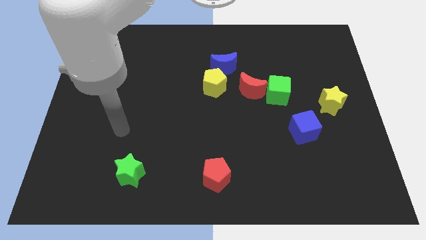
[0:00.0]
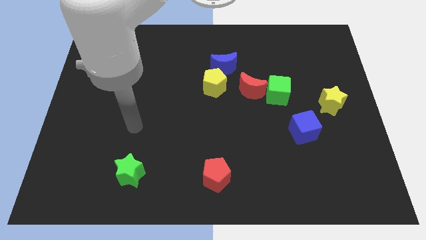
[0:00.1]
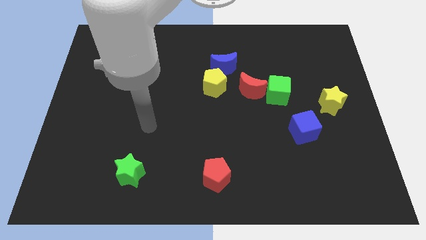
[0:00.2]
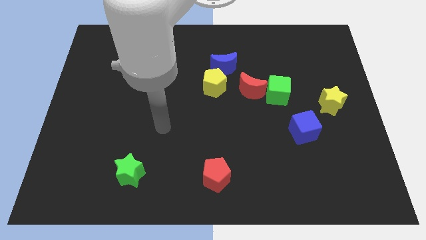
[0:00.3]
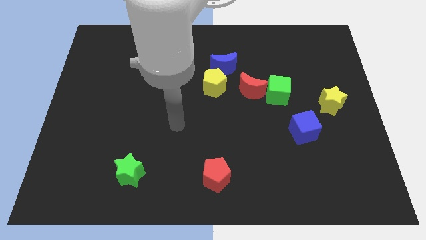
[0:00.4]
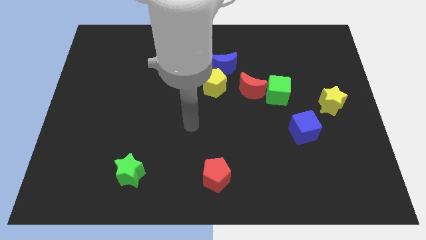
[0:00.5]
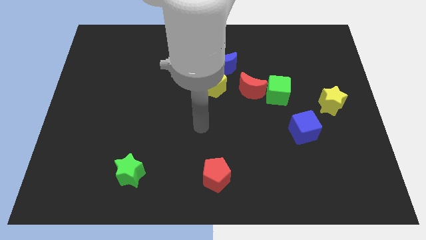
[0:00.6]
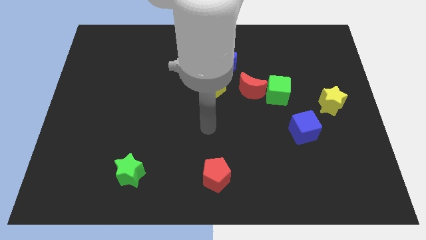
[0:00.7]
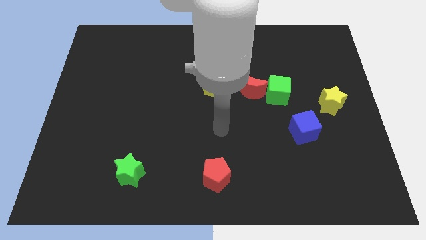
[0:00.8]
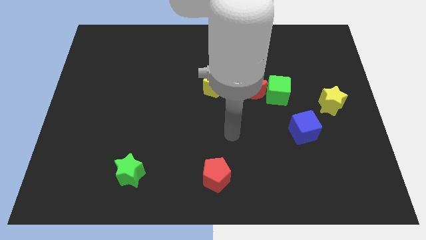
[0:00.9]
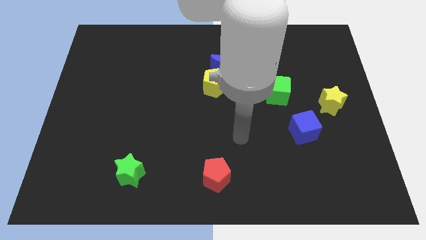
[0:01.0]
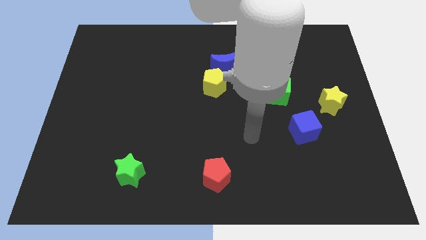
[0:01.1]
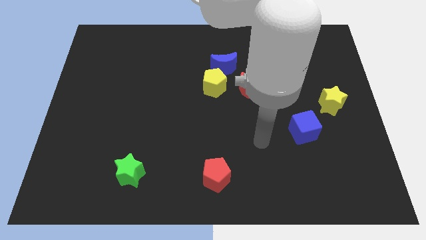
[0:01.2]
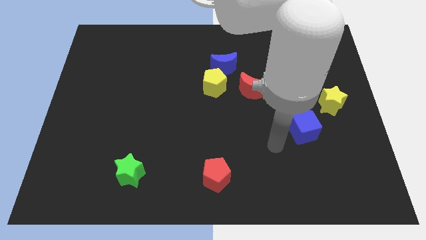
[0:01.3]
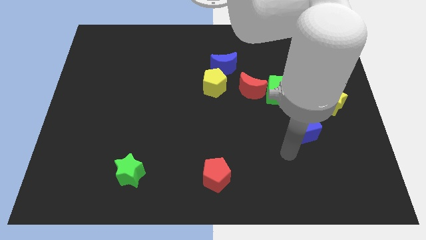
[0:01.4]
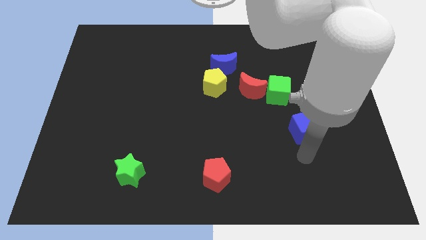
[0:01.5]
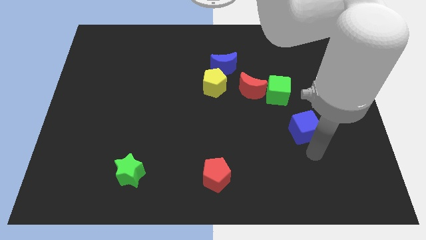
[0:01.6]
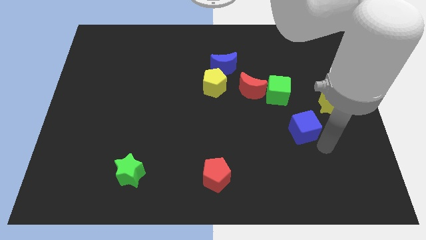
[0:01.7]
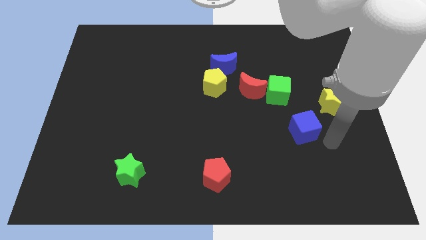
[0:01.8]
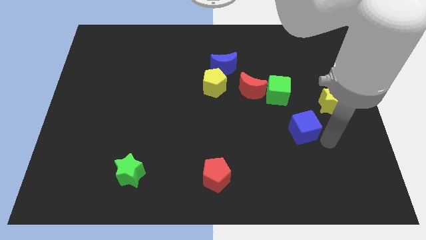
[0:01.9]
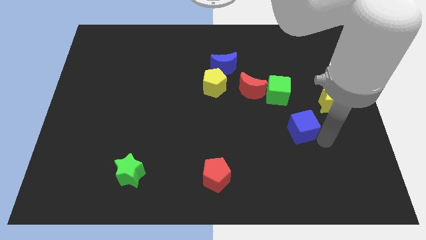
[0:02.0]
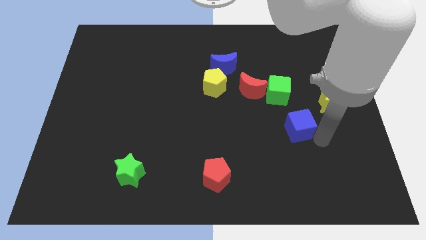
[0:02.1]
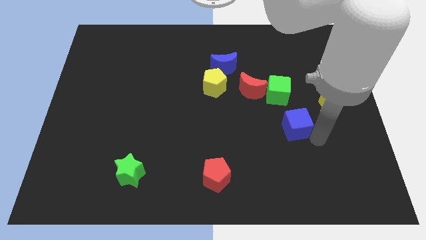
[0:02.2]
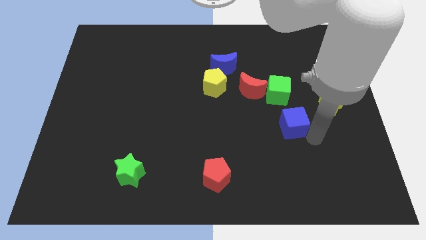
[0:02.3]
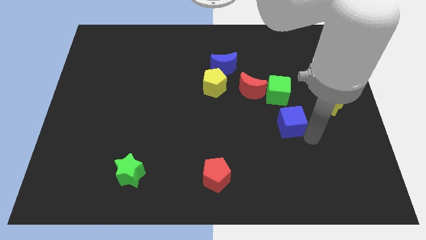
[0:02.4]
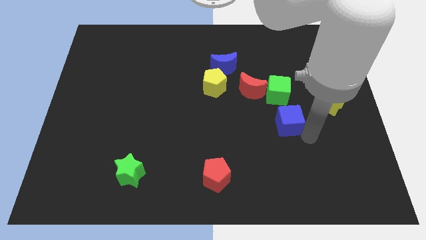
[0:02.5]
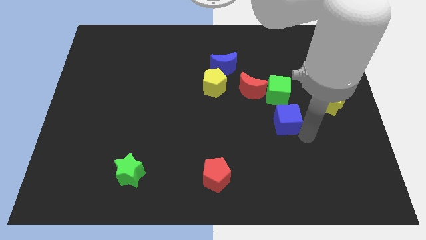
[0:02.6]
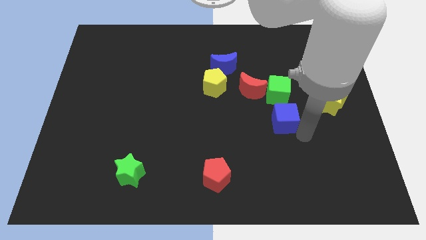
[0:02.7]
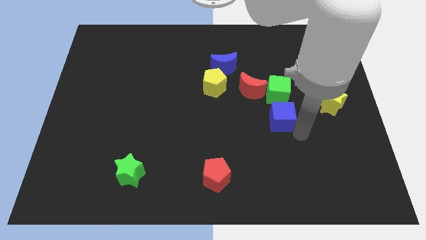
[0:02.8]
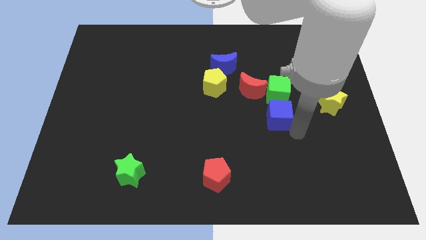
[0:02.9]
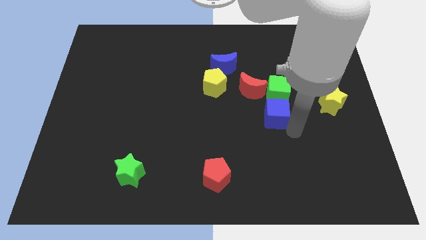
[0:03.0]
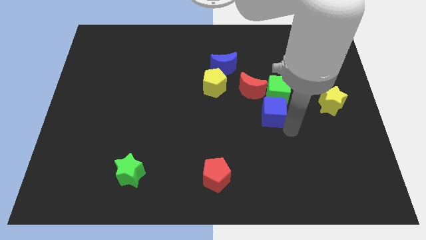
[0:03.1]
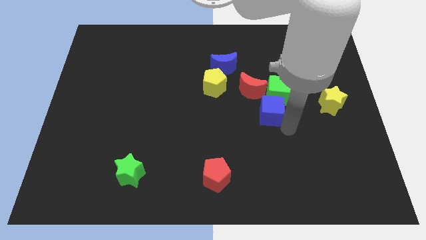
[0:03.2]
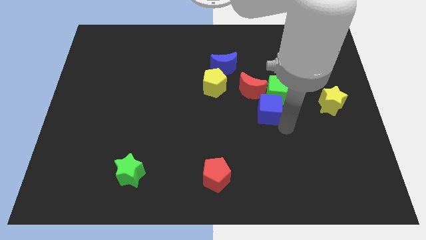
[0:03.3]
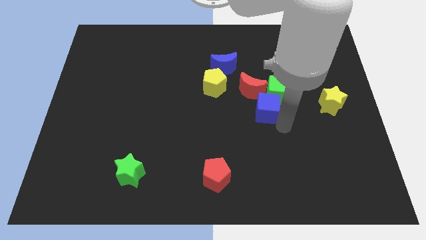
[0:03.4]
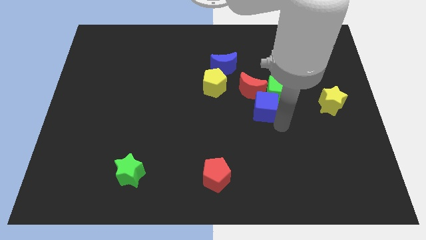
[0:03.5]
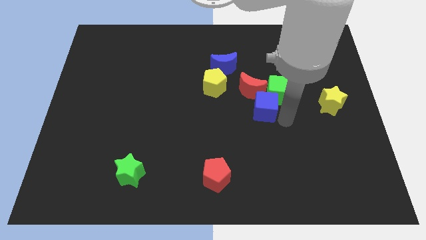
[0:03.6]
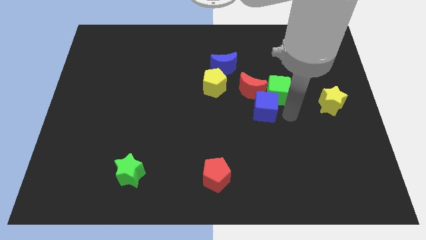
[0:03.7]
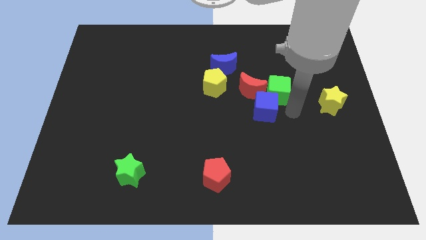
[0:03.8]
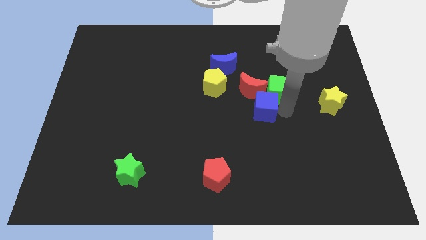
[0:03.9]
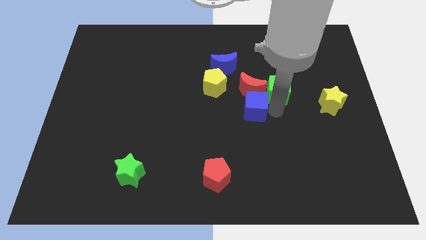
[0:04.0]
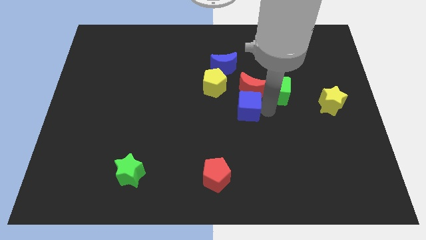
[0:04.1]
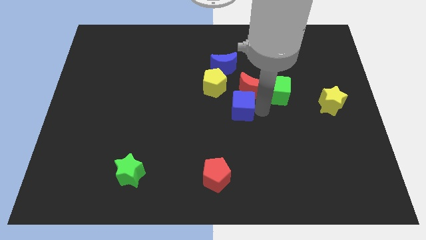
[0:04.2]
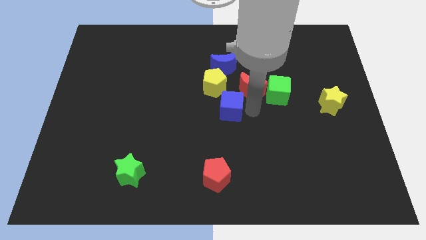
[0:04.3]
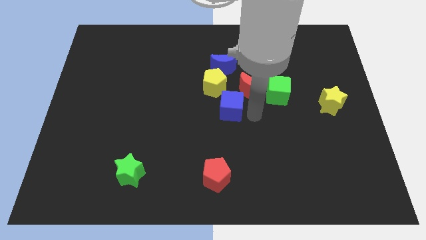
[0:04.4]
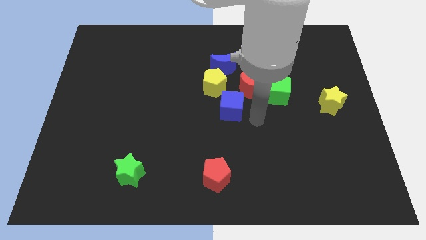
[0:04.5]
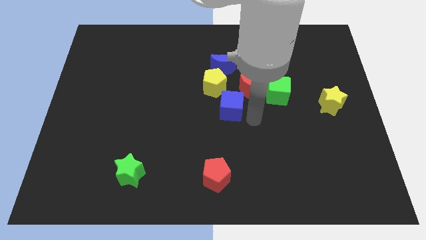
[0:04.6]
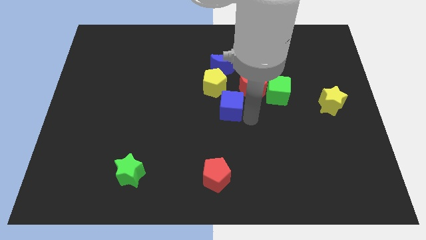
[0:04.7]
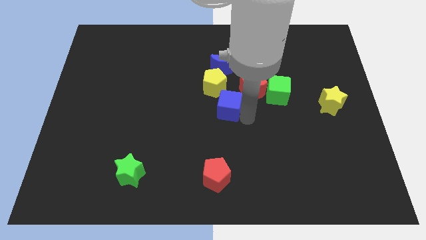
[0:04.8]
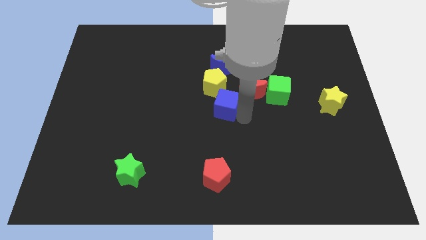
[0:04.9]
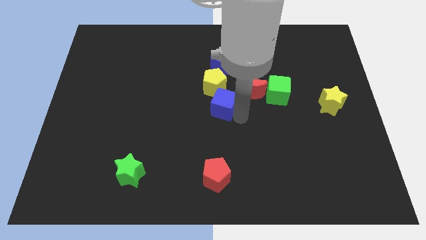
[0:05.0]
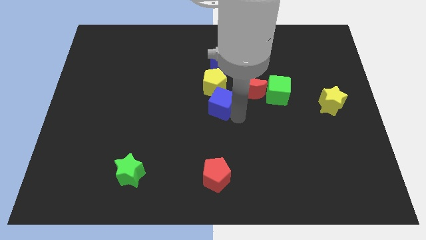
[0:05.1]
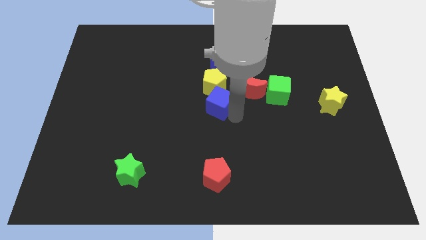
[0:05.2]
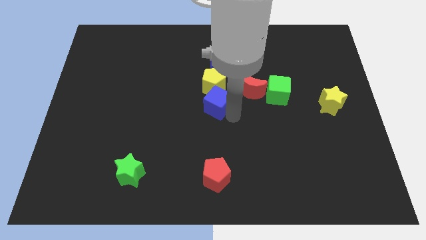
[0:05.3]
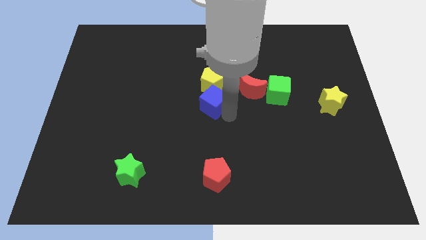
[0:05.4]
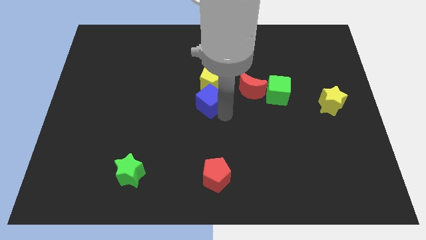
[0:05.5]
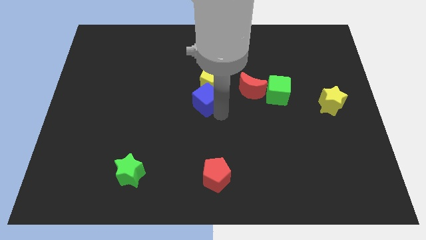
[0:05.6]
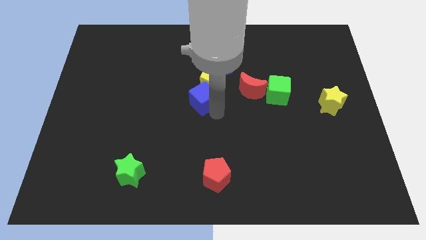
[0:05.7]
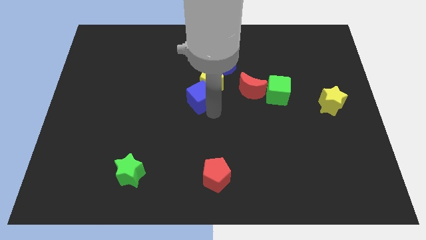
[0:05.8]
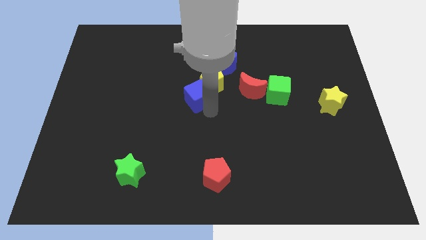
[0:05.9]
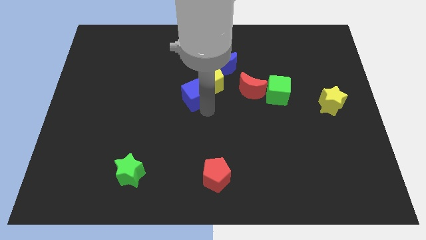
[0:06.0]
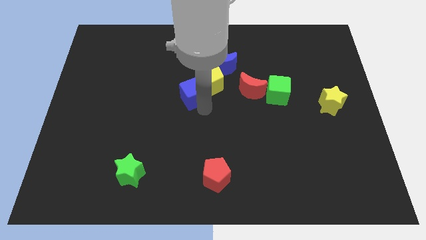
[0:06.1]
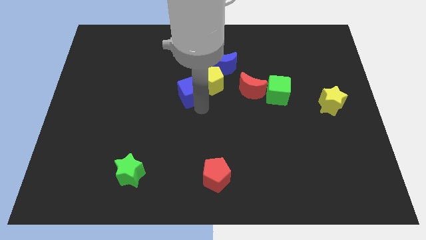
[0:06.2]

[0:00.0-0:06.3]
slide the blue cube up and left

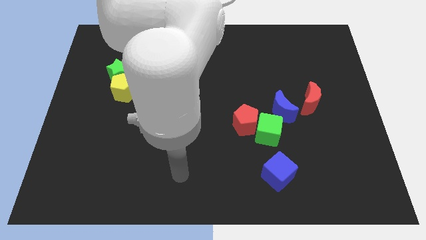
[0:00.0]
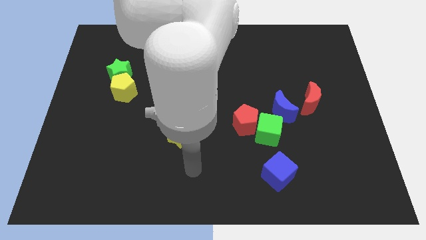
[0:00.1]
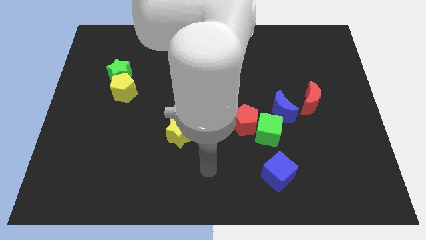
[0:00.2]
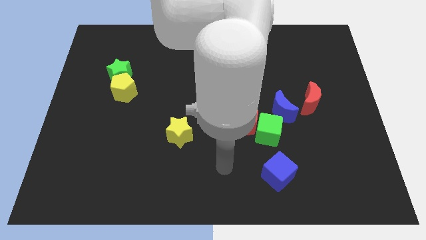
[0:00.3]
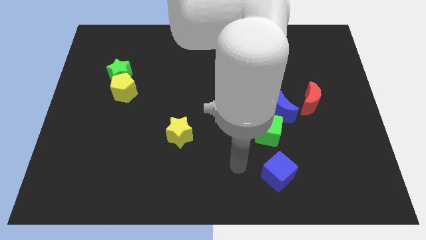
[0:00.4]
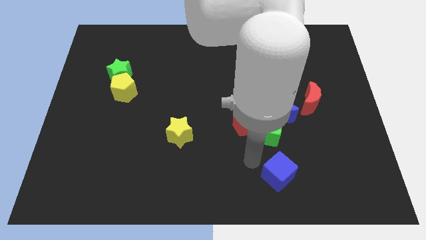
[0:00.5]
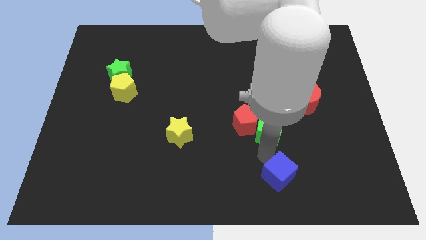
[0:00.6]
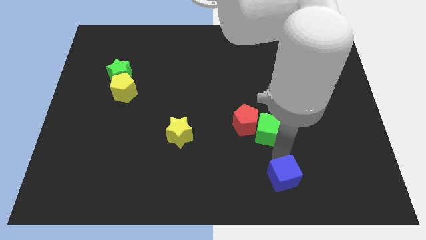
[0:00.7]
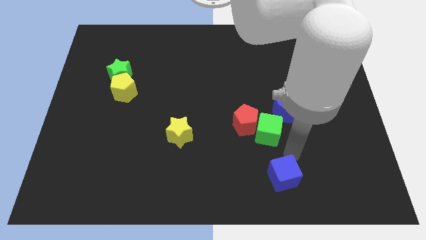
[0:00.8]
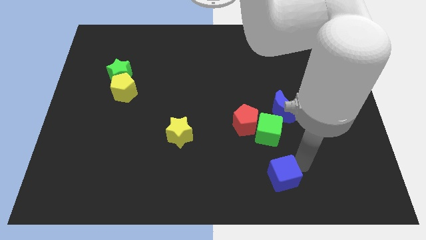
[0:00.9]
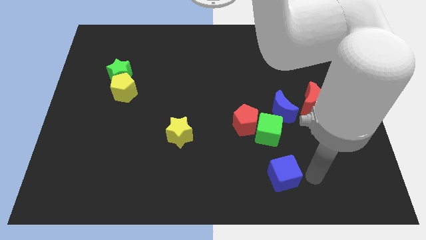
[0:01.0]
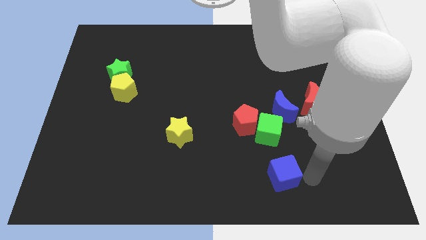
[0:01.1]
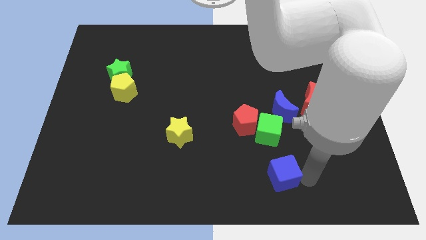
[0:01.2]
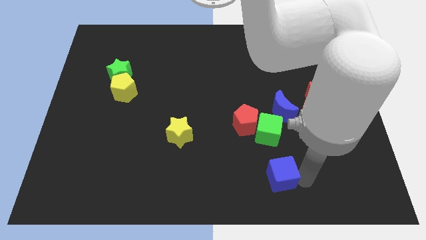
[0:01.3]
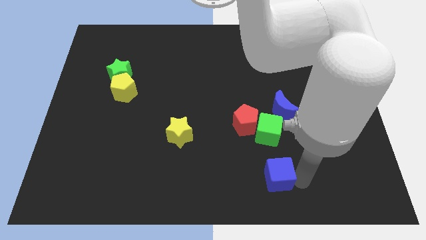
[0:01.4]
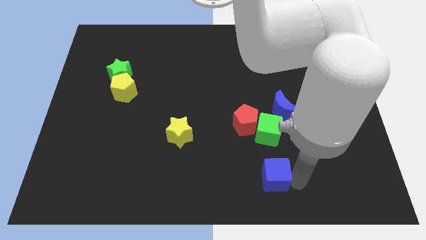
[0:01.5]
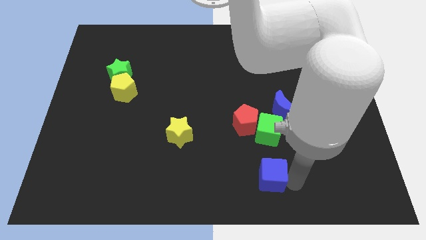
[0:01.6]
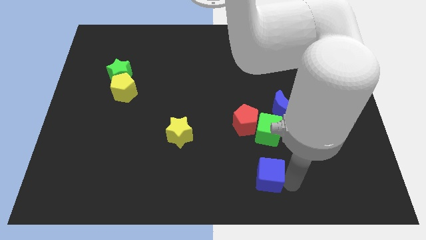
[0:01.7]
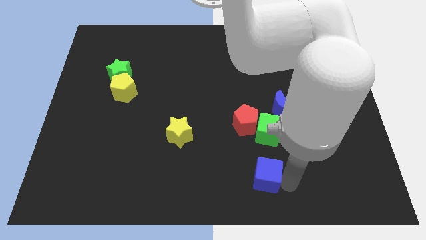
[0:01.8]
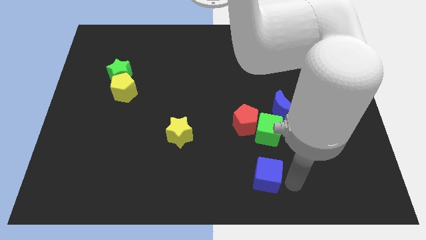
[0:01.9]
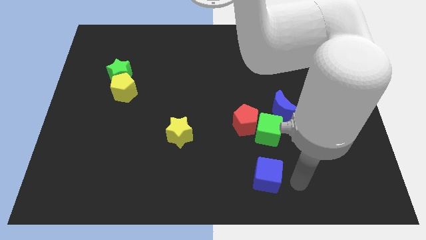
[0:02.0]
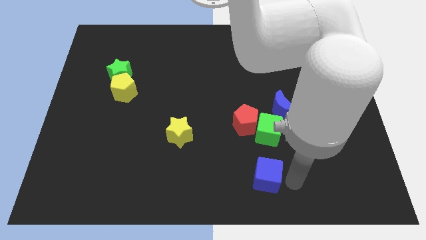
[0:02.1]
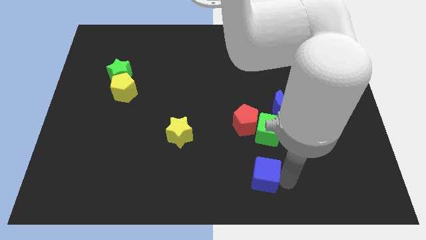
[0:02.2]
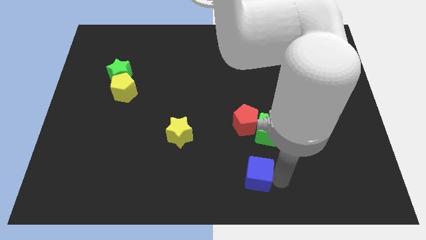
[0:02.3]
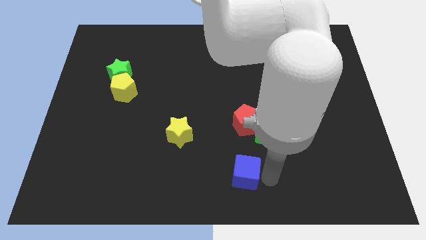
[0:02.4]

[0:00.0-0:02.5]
move the blue cube to the left a little bit
